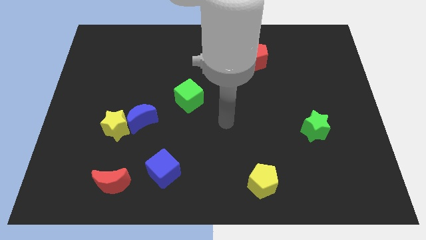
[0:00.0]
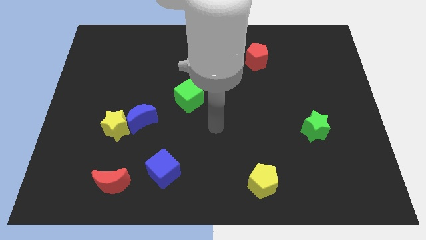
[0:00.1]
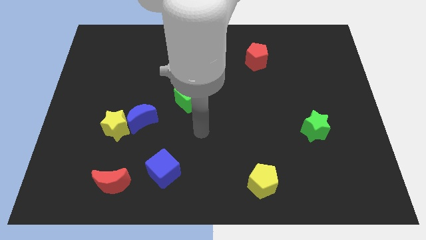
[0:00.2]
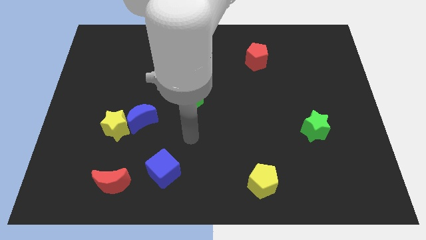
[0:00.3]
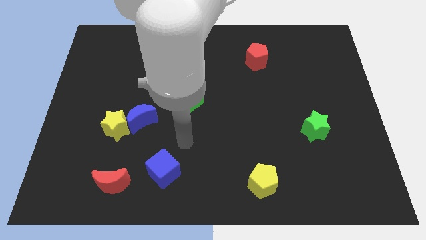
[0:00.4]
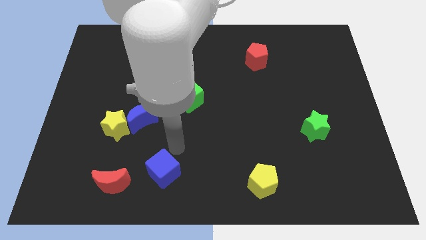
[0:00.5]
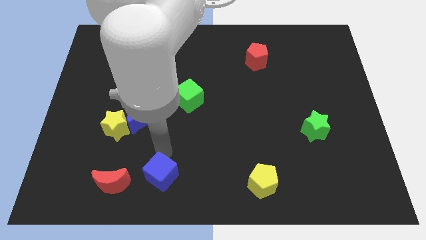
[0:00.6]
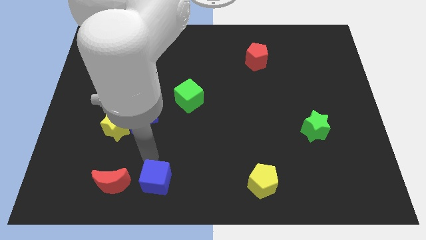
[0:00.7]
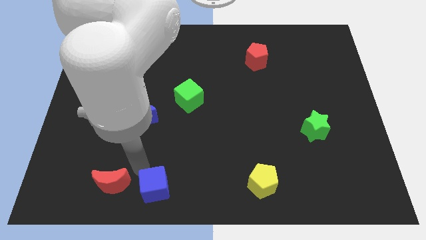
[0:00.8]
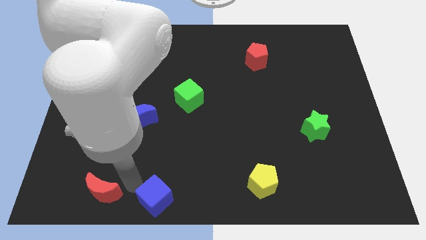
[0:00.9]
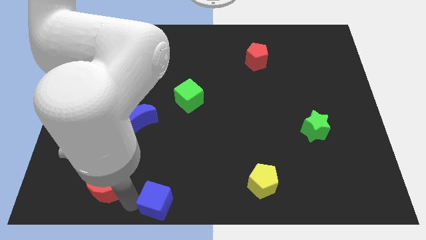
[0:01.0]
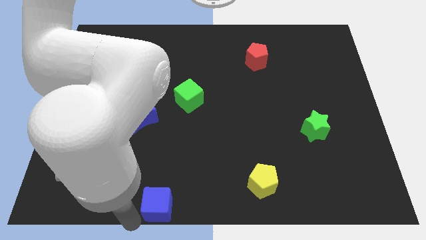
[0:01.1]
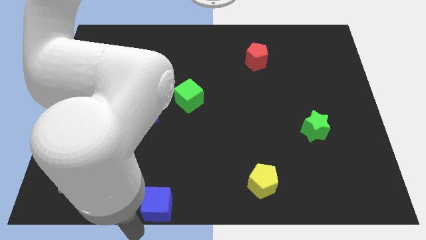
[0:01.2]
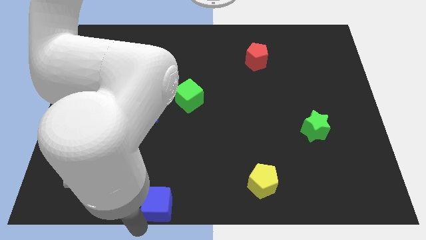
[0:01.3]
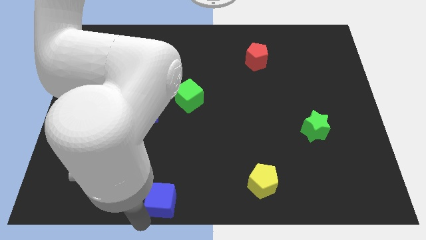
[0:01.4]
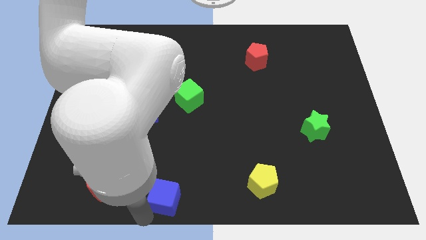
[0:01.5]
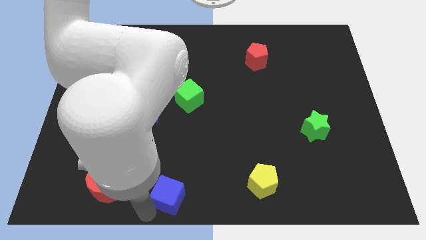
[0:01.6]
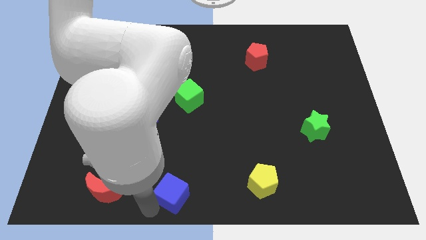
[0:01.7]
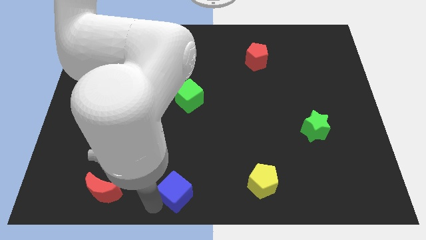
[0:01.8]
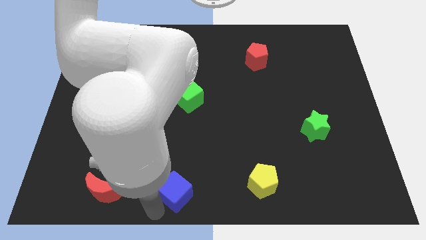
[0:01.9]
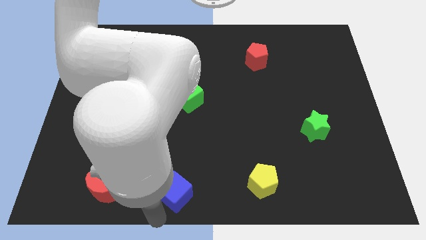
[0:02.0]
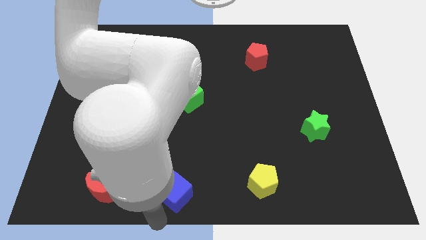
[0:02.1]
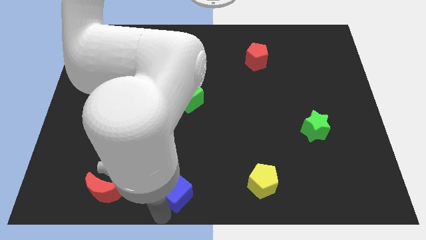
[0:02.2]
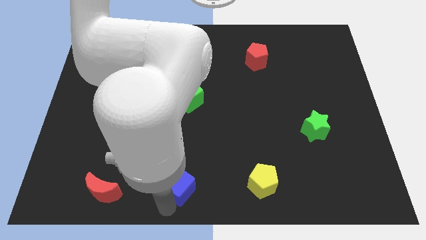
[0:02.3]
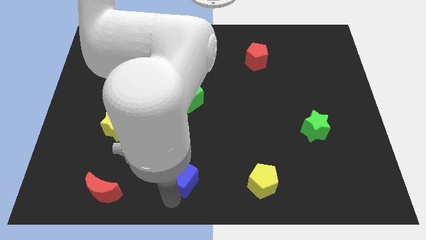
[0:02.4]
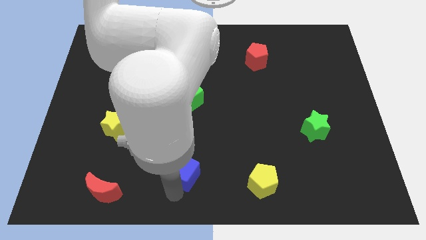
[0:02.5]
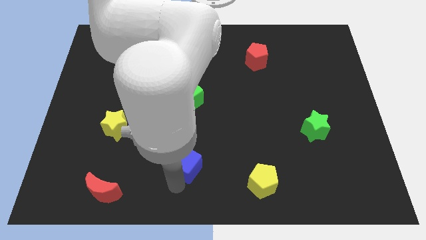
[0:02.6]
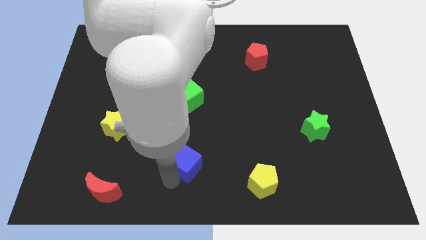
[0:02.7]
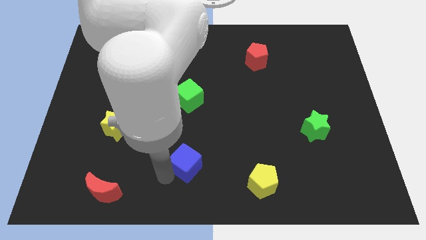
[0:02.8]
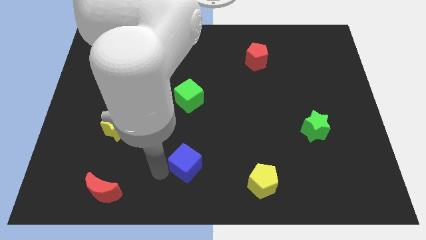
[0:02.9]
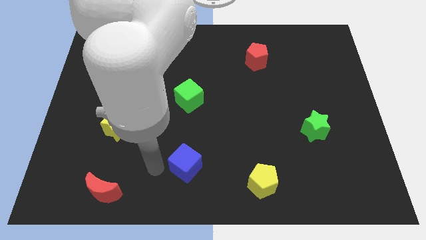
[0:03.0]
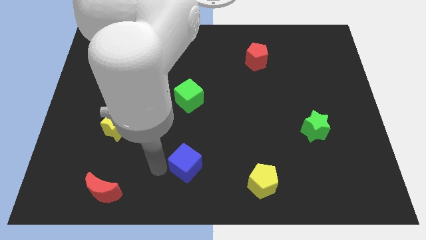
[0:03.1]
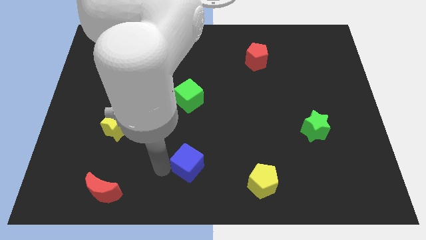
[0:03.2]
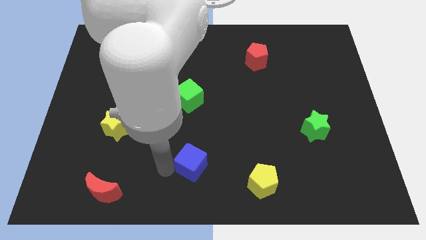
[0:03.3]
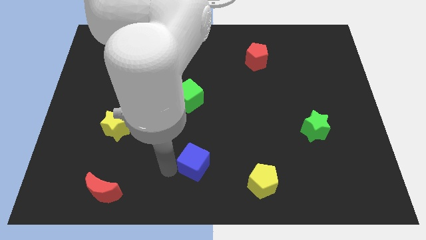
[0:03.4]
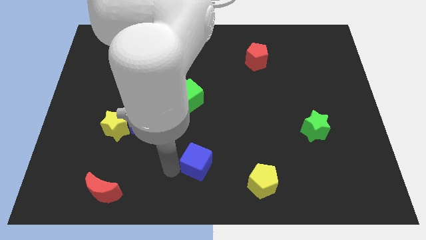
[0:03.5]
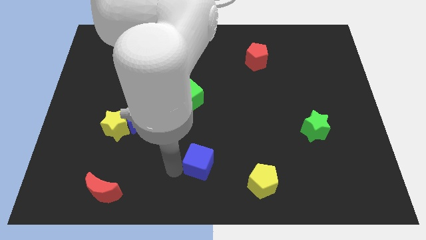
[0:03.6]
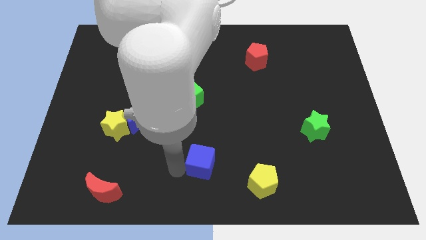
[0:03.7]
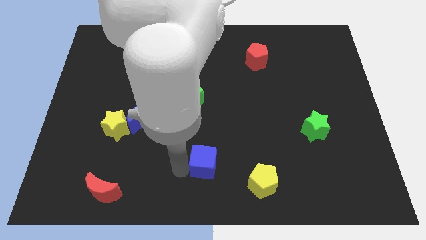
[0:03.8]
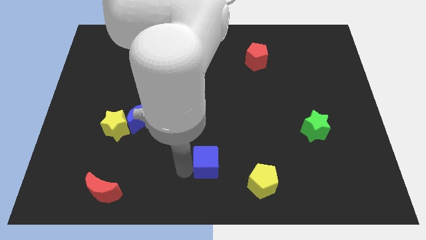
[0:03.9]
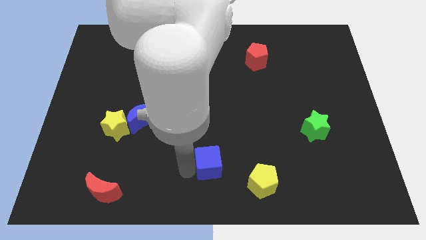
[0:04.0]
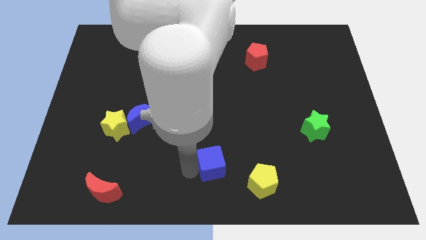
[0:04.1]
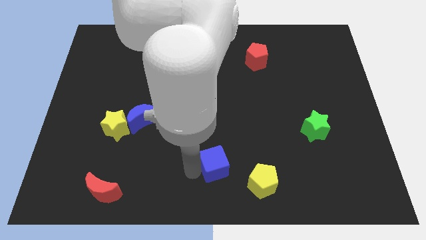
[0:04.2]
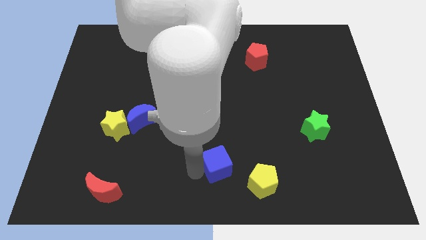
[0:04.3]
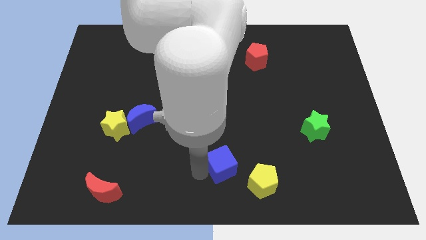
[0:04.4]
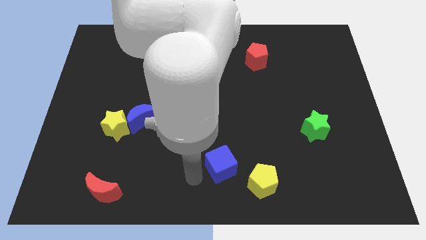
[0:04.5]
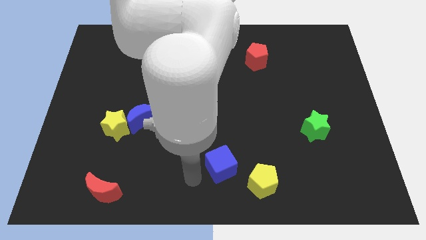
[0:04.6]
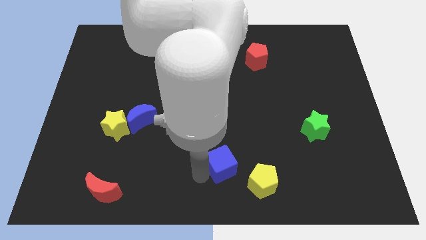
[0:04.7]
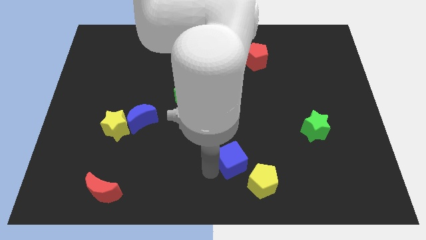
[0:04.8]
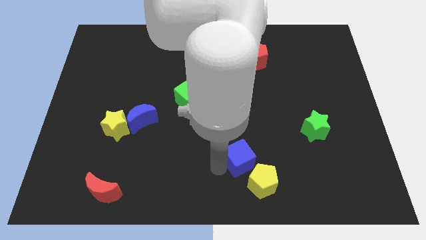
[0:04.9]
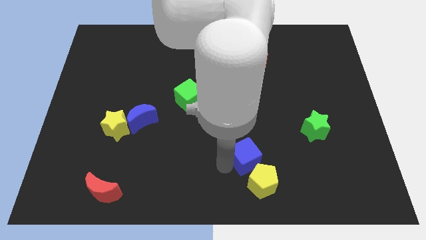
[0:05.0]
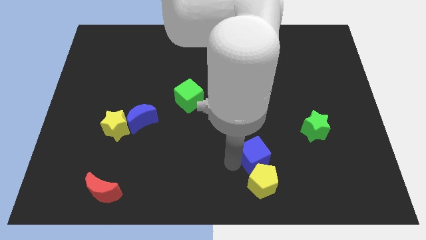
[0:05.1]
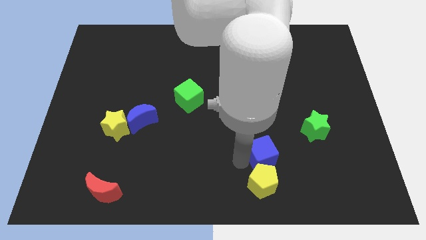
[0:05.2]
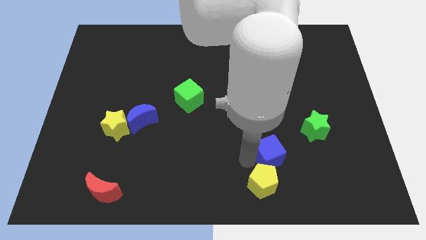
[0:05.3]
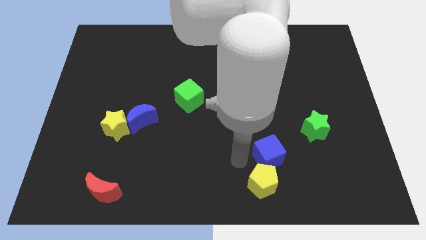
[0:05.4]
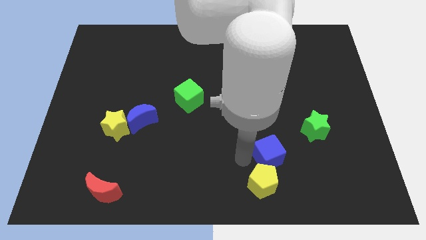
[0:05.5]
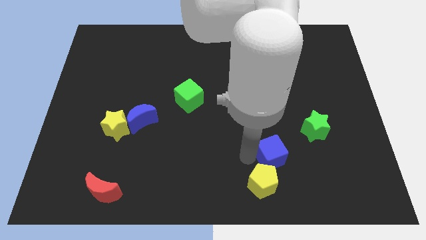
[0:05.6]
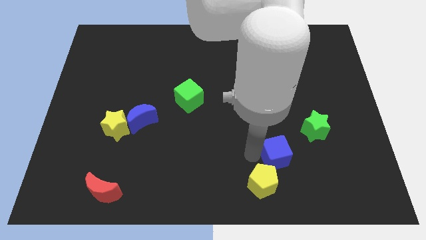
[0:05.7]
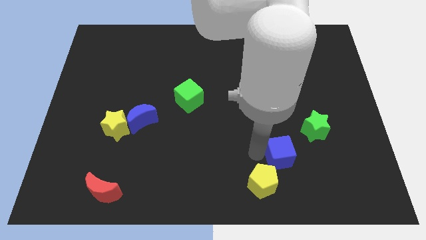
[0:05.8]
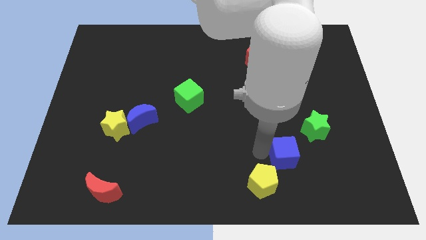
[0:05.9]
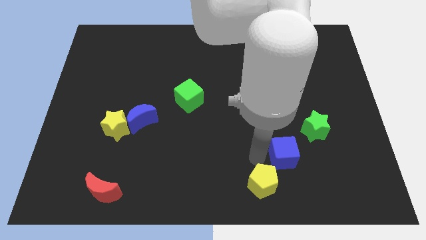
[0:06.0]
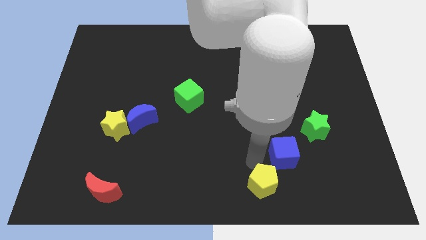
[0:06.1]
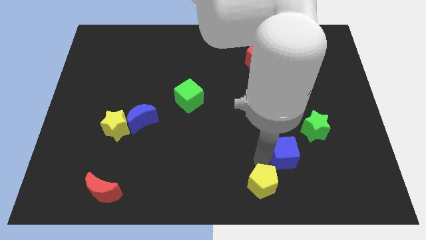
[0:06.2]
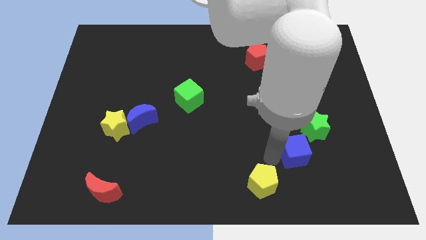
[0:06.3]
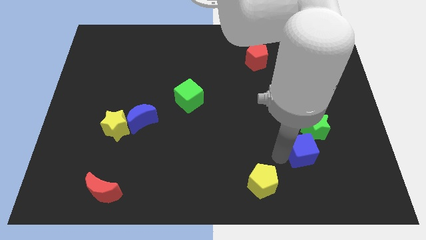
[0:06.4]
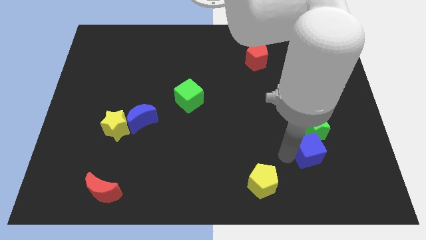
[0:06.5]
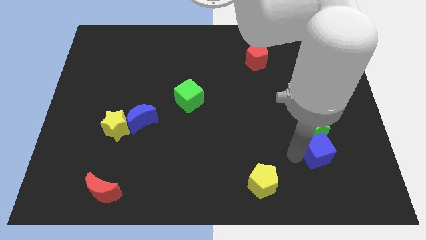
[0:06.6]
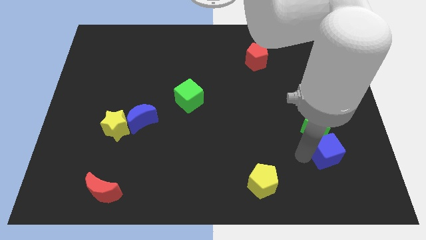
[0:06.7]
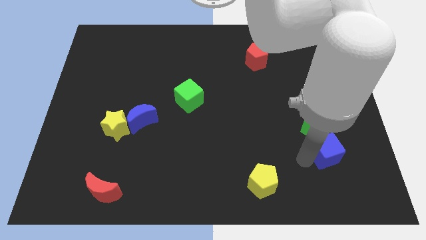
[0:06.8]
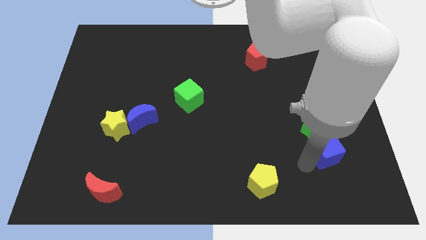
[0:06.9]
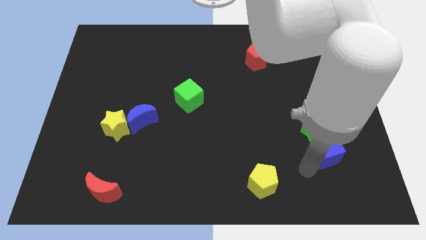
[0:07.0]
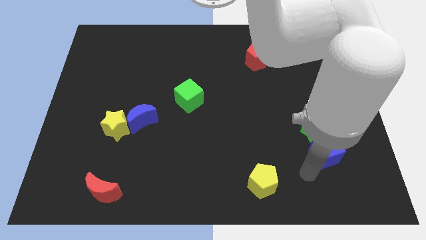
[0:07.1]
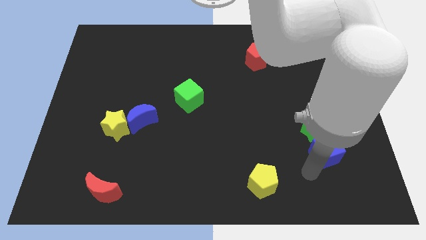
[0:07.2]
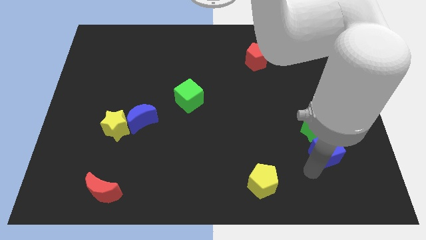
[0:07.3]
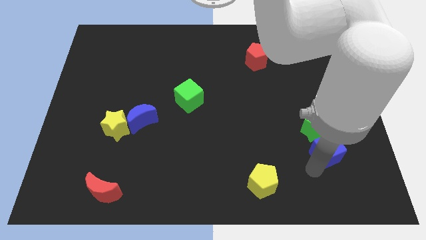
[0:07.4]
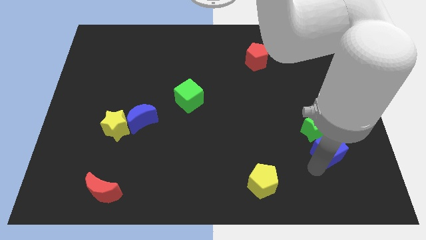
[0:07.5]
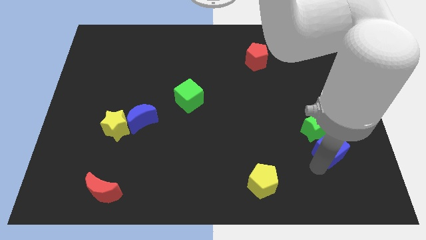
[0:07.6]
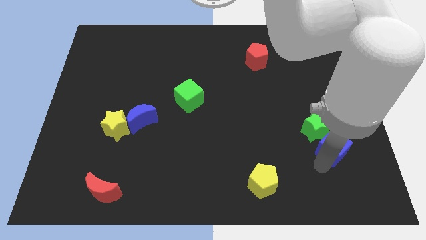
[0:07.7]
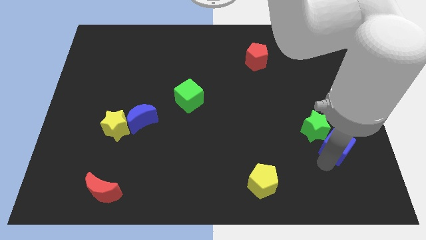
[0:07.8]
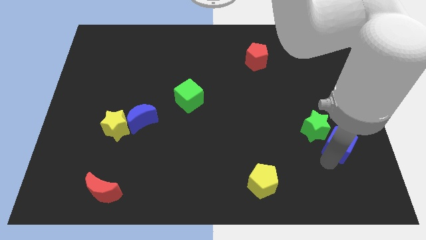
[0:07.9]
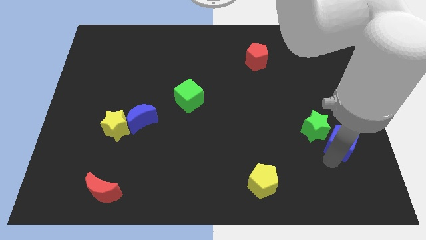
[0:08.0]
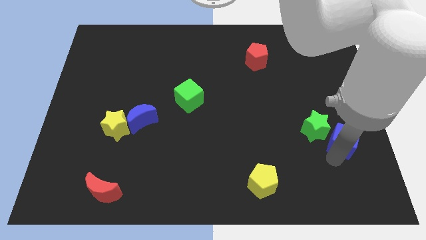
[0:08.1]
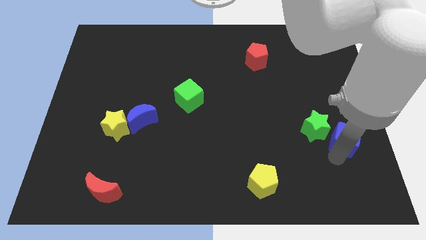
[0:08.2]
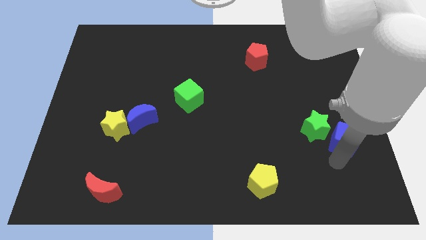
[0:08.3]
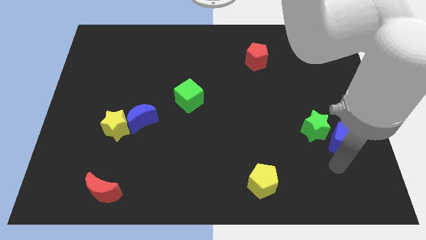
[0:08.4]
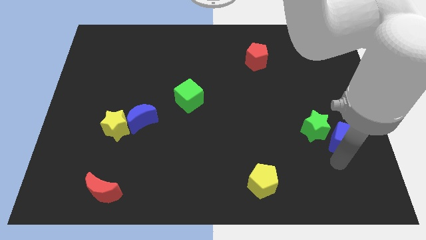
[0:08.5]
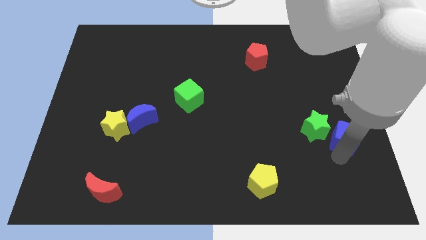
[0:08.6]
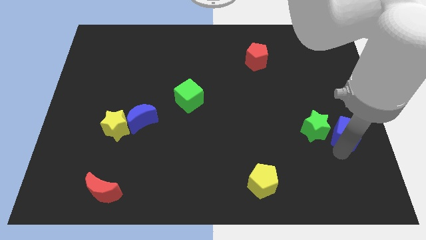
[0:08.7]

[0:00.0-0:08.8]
slide the blue cube to the right side
